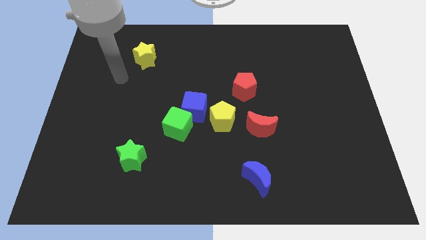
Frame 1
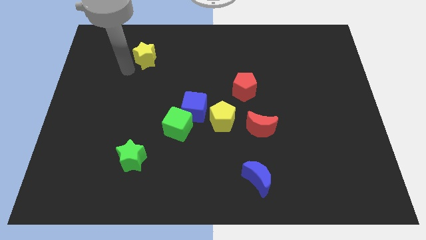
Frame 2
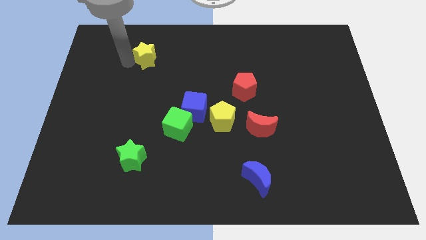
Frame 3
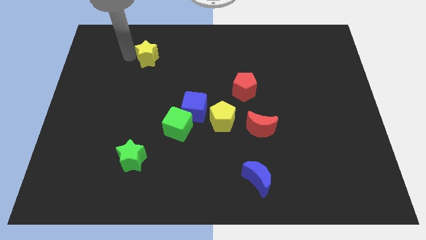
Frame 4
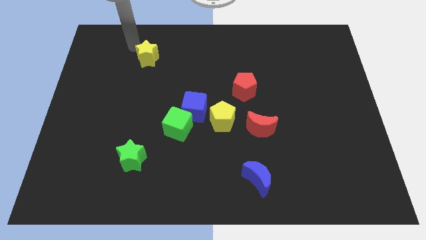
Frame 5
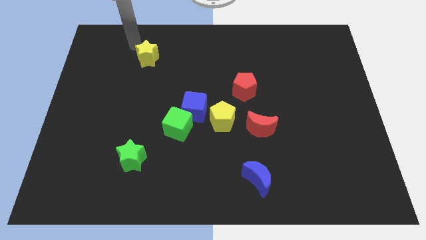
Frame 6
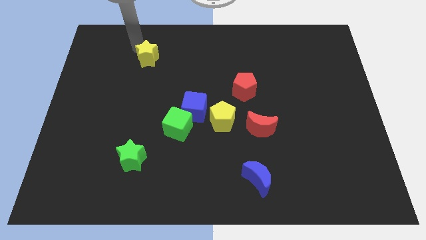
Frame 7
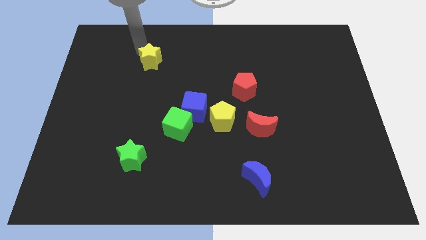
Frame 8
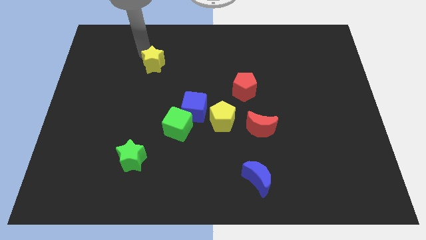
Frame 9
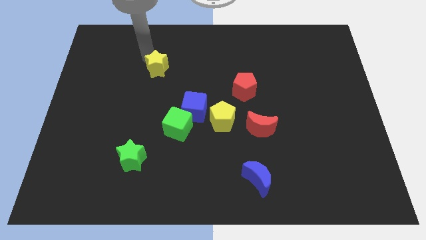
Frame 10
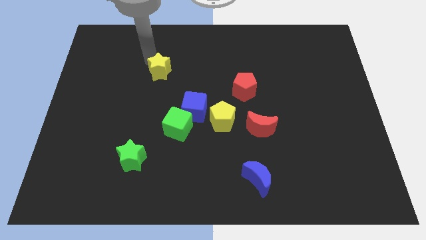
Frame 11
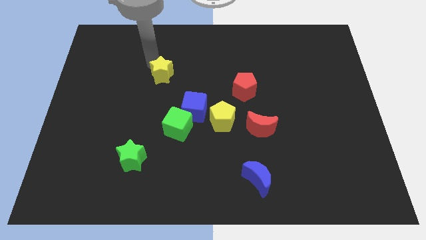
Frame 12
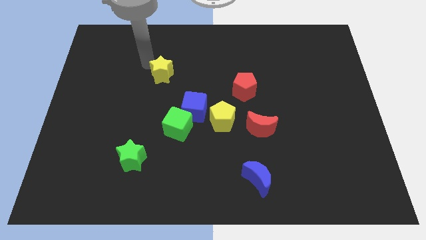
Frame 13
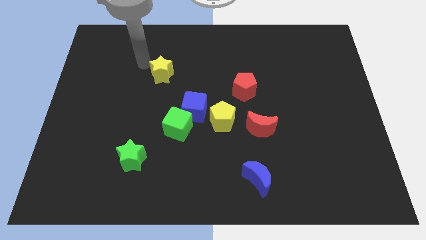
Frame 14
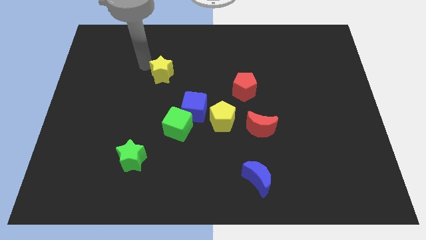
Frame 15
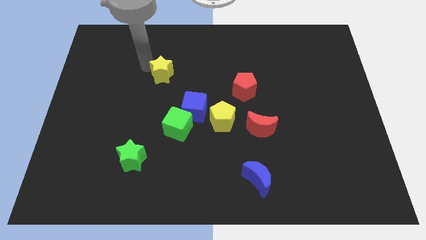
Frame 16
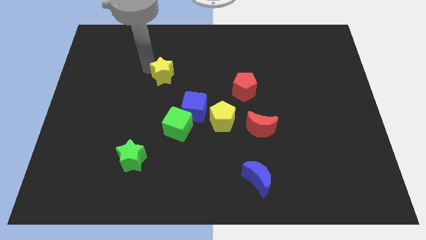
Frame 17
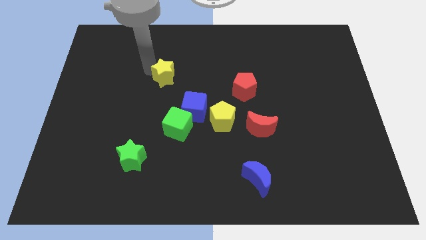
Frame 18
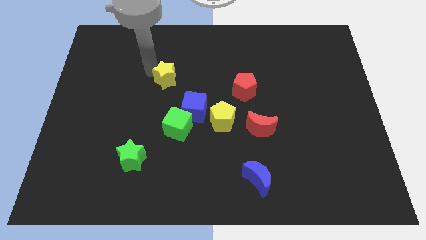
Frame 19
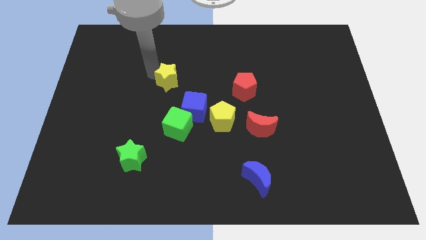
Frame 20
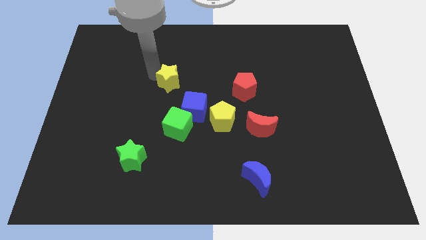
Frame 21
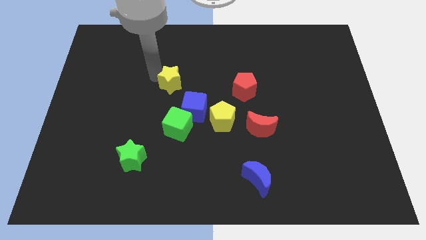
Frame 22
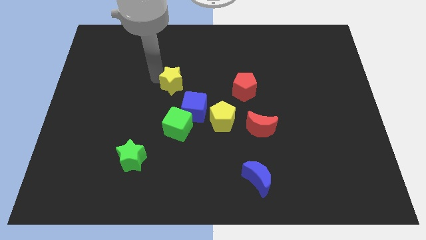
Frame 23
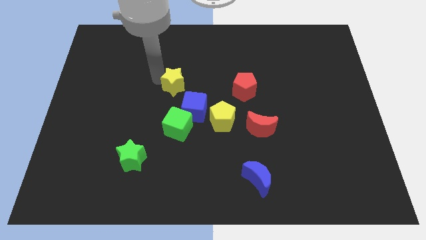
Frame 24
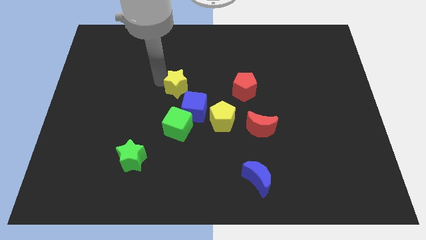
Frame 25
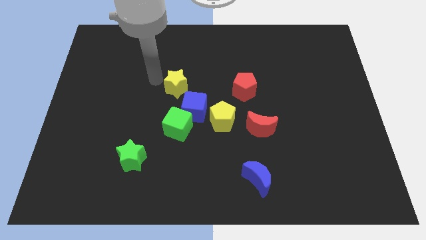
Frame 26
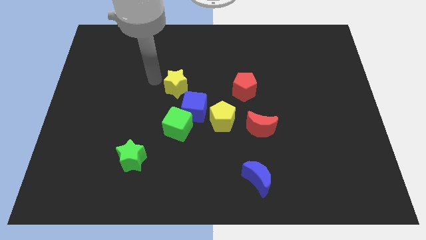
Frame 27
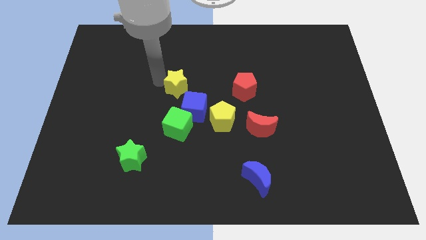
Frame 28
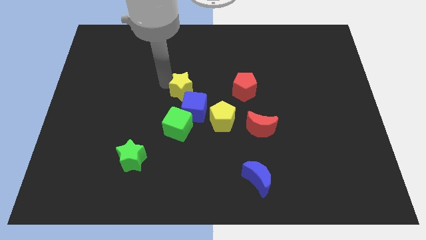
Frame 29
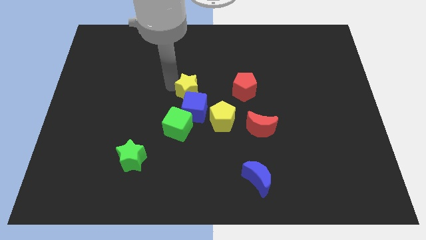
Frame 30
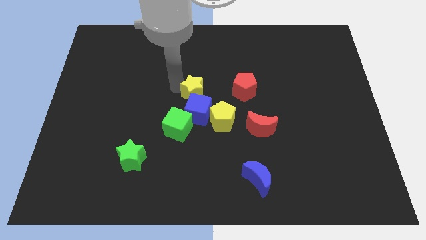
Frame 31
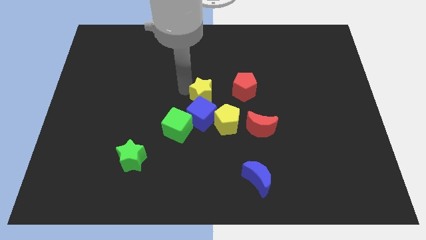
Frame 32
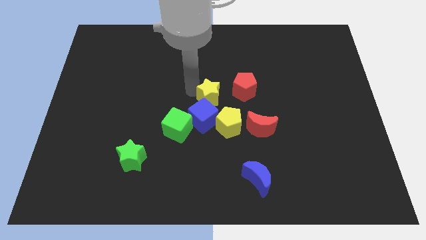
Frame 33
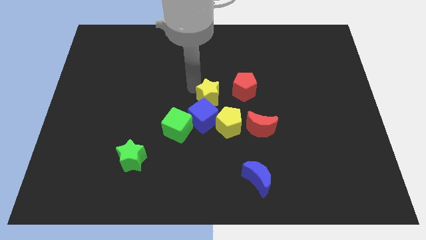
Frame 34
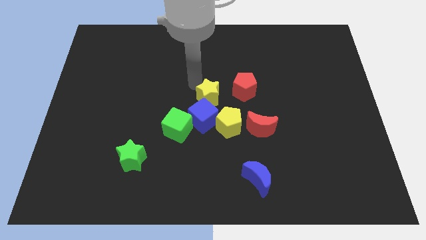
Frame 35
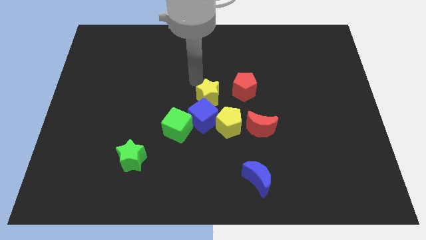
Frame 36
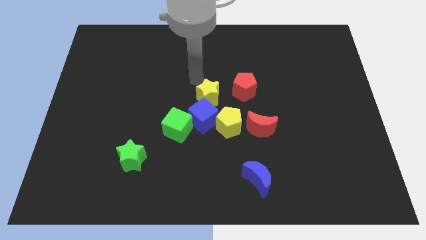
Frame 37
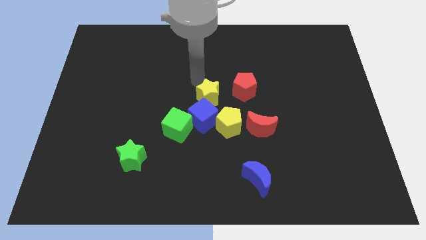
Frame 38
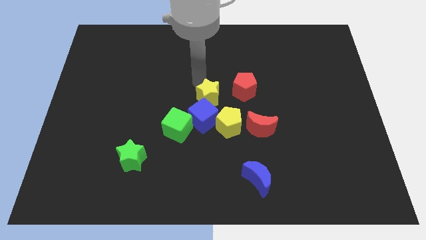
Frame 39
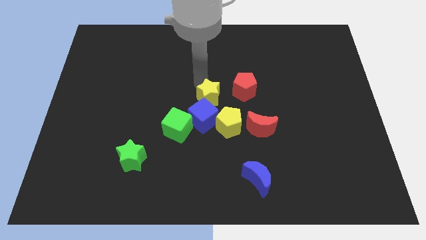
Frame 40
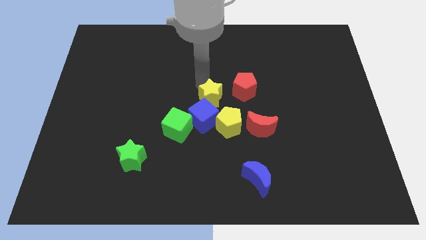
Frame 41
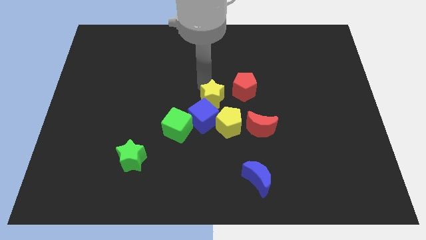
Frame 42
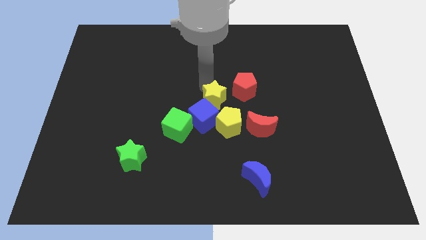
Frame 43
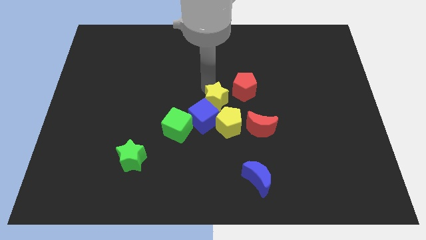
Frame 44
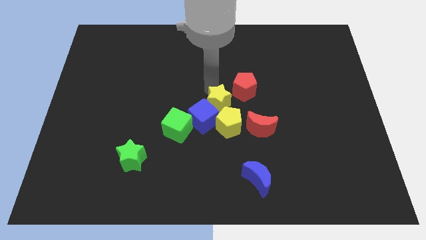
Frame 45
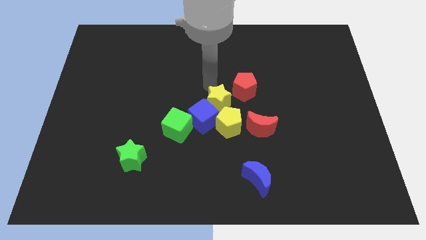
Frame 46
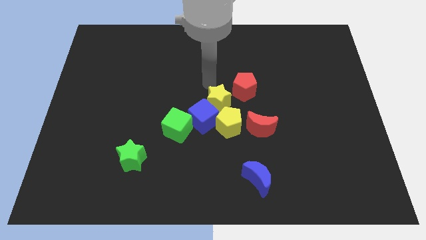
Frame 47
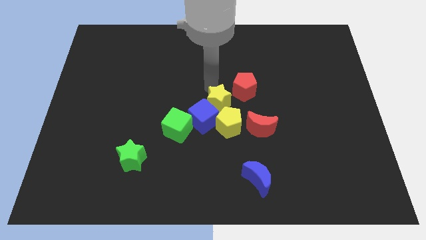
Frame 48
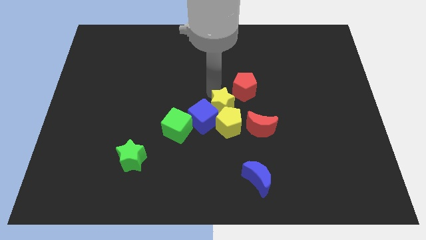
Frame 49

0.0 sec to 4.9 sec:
push the yellow star to the yellow pentagon

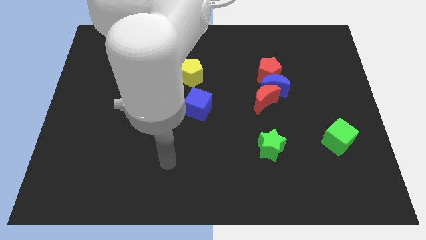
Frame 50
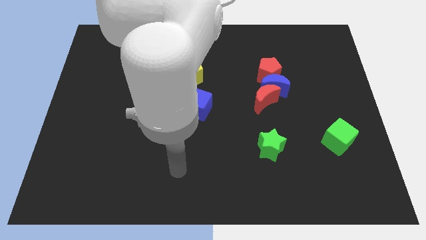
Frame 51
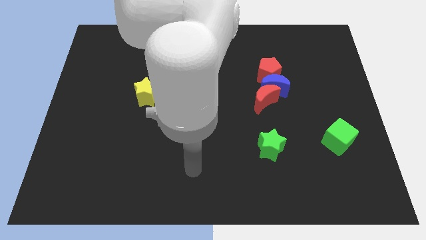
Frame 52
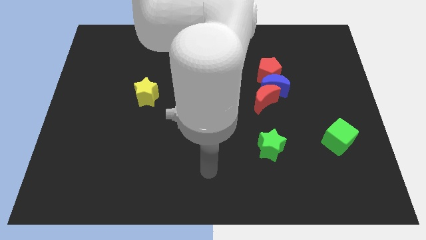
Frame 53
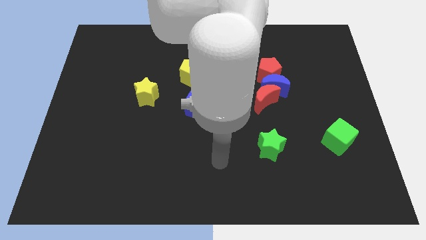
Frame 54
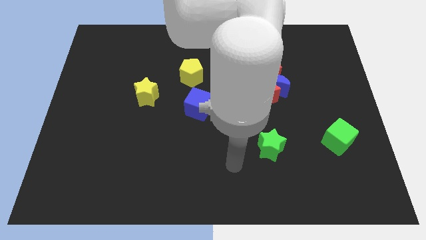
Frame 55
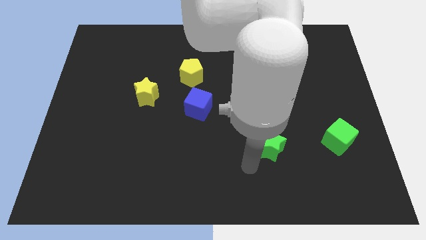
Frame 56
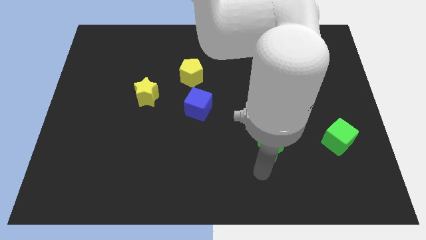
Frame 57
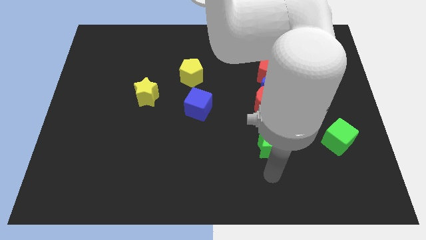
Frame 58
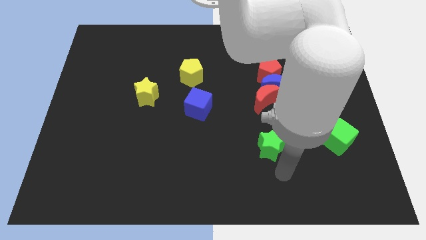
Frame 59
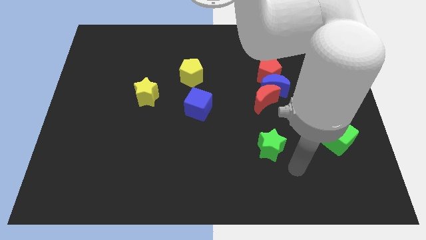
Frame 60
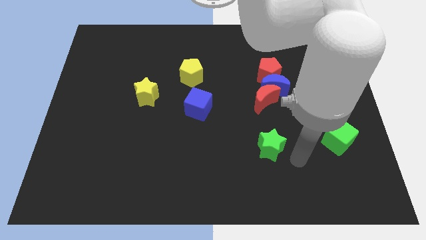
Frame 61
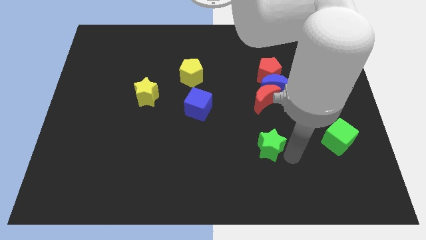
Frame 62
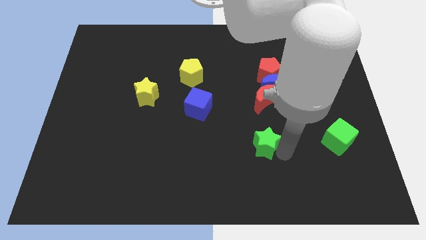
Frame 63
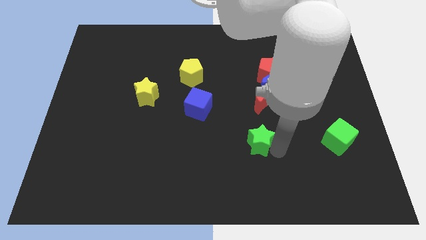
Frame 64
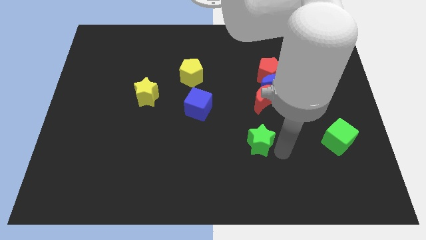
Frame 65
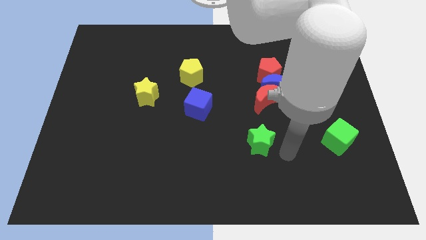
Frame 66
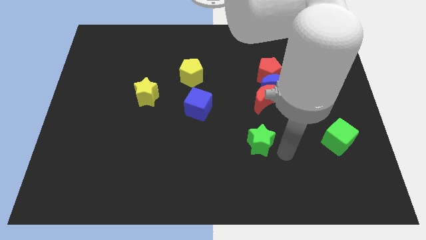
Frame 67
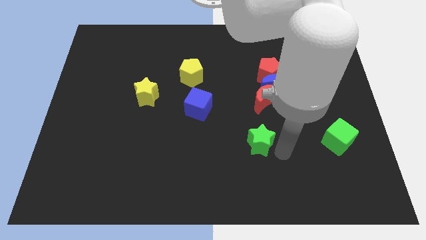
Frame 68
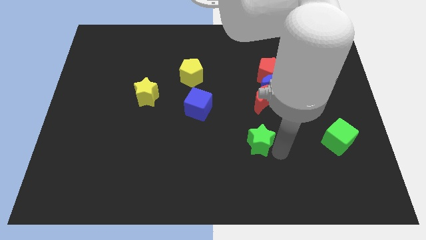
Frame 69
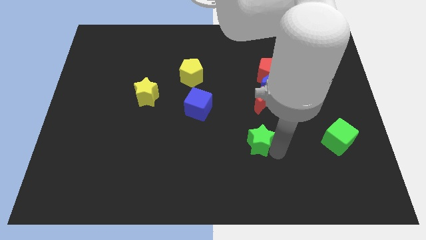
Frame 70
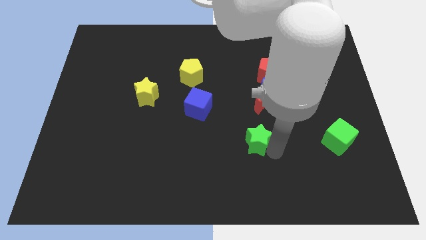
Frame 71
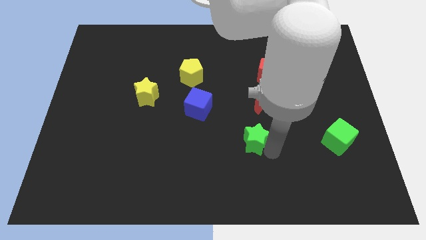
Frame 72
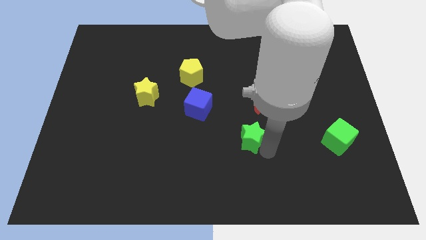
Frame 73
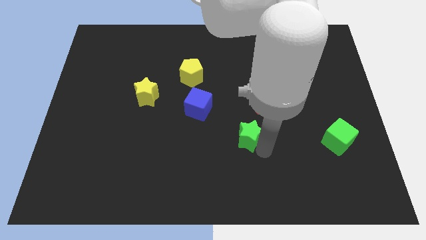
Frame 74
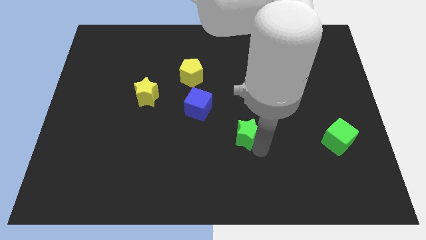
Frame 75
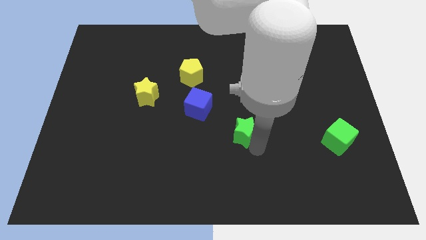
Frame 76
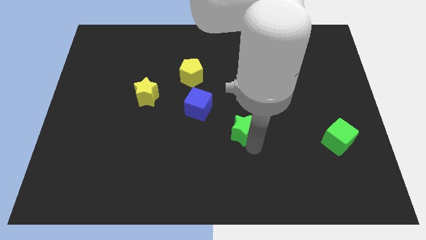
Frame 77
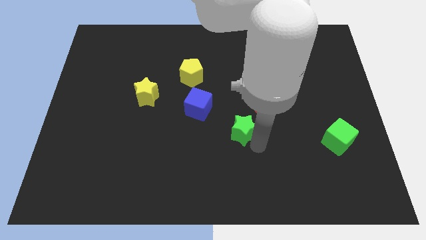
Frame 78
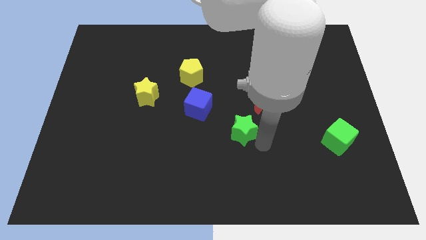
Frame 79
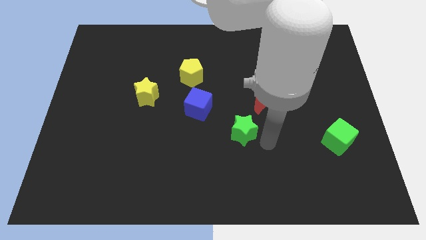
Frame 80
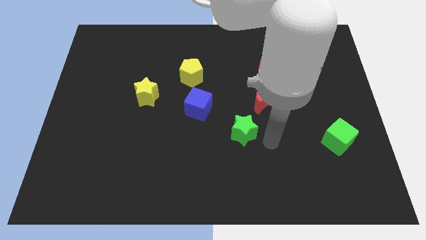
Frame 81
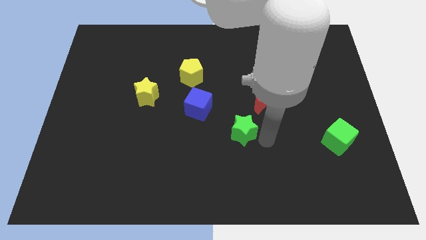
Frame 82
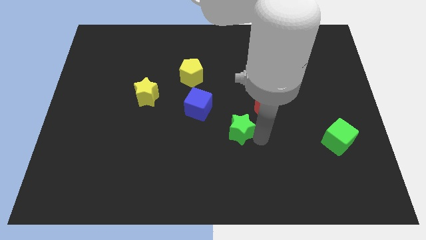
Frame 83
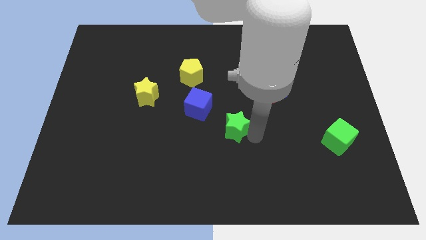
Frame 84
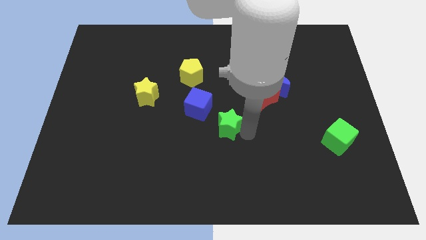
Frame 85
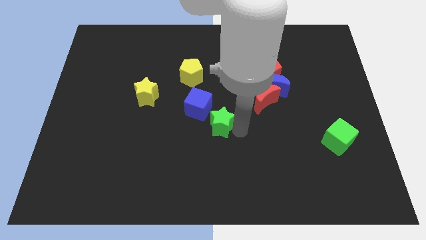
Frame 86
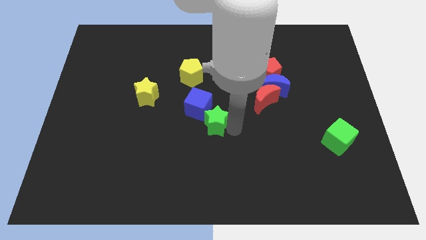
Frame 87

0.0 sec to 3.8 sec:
move the green star to the blue cube
